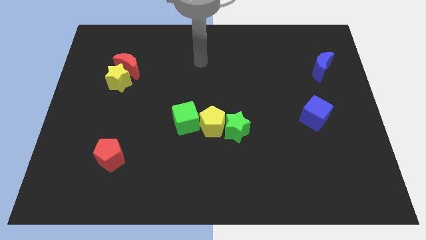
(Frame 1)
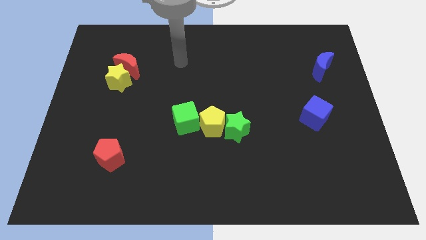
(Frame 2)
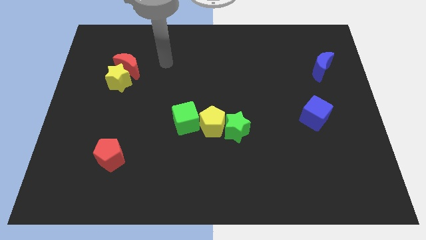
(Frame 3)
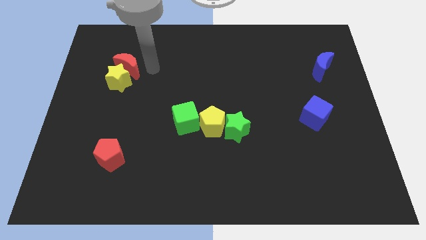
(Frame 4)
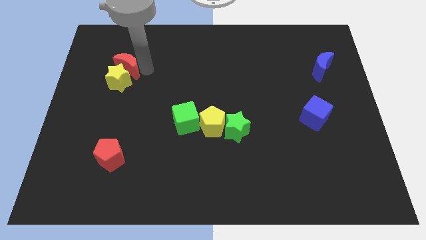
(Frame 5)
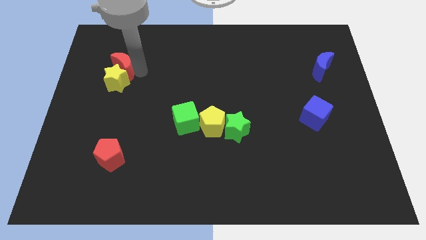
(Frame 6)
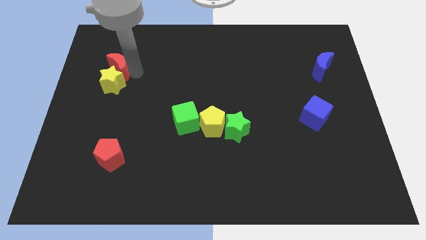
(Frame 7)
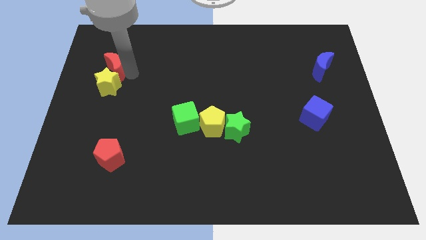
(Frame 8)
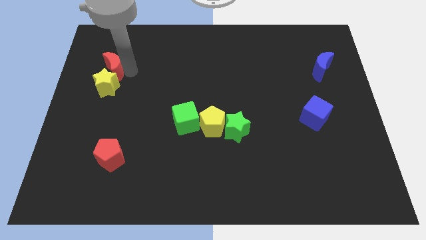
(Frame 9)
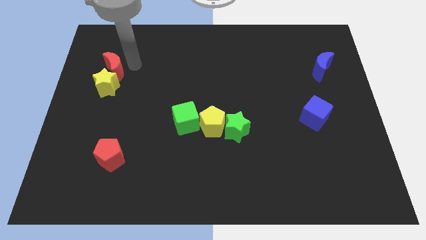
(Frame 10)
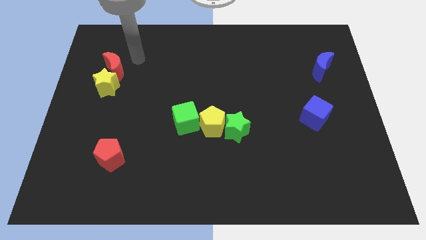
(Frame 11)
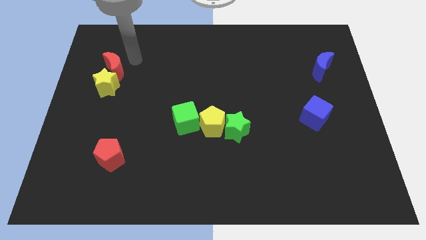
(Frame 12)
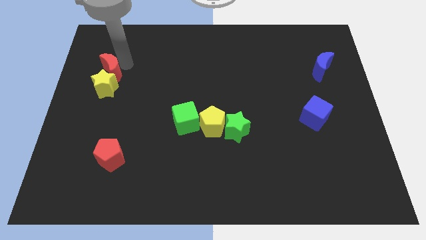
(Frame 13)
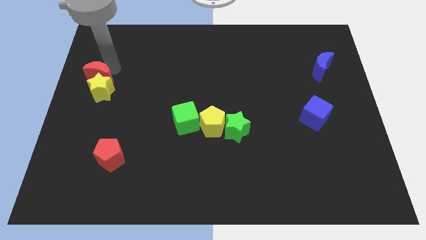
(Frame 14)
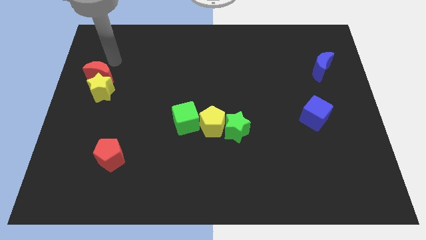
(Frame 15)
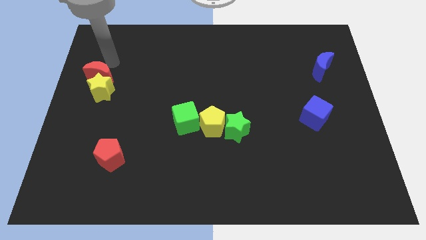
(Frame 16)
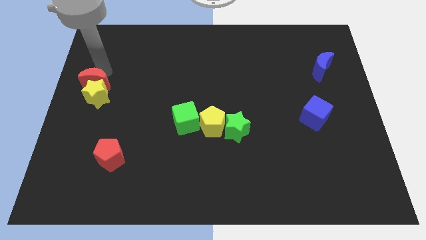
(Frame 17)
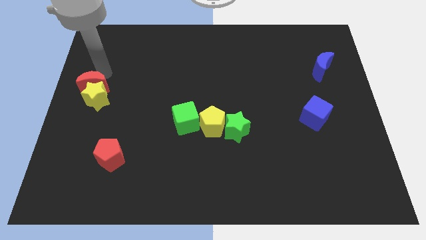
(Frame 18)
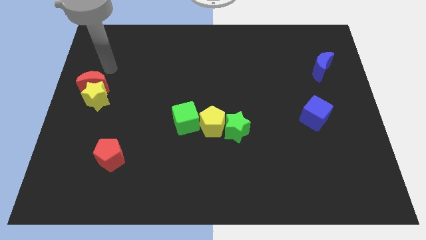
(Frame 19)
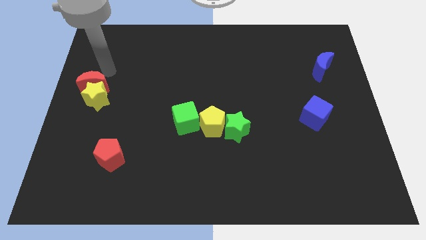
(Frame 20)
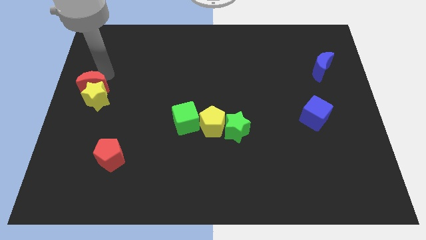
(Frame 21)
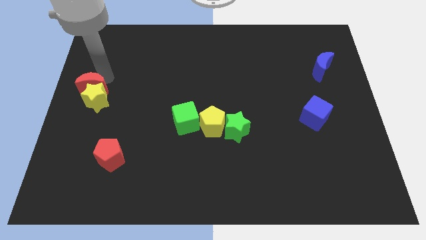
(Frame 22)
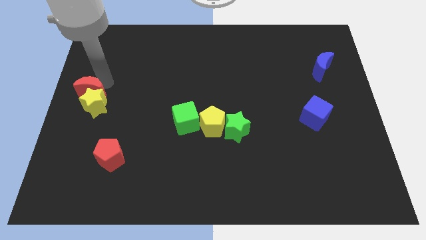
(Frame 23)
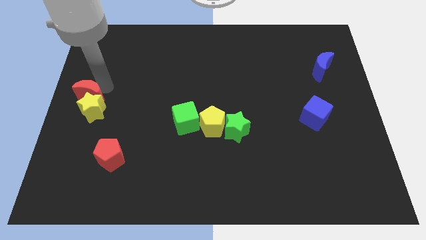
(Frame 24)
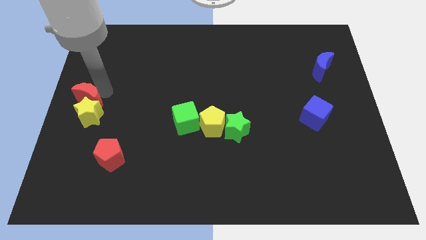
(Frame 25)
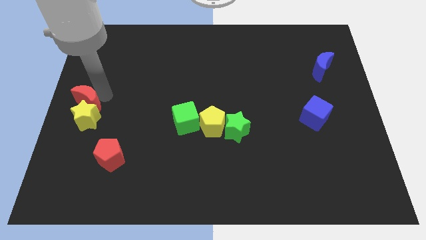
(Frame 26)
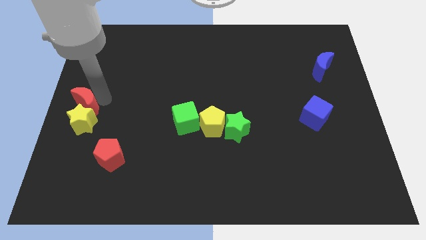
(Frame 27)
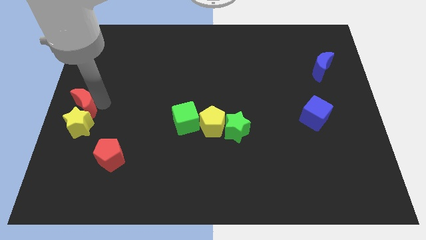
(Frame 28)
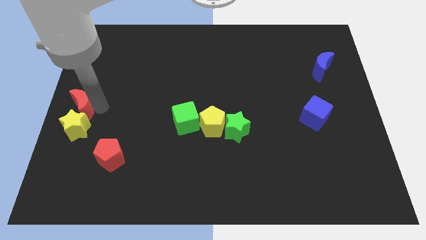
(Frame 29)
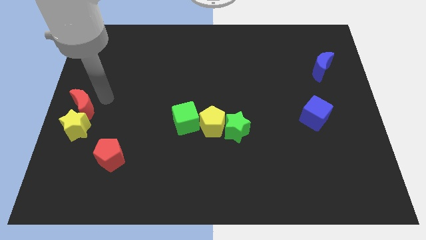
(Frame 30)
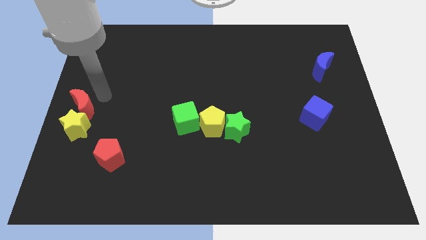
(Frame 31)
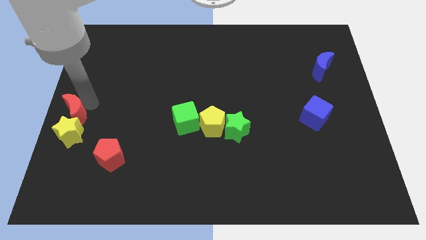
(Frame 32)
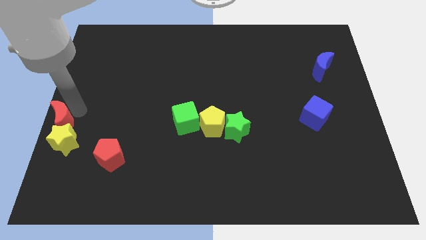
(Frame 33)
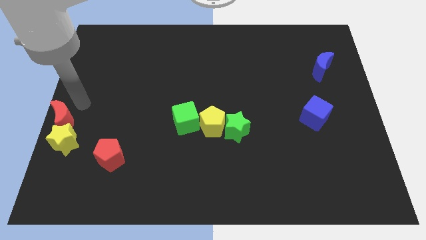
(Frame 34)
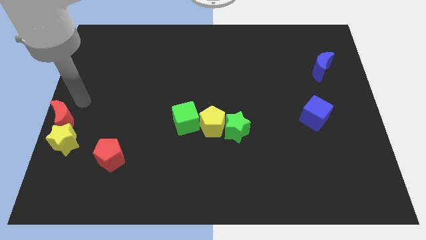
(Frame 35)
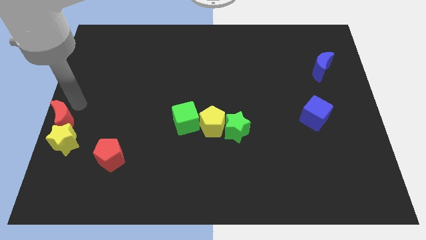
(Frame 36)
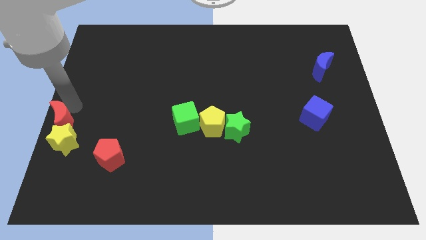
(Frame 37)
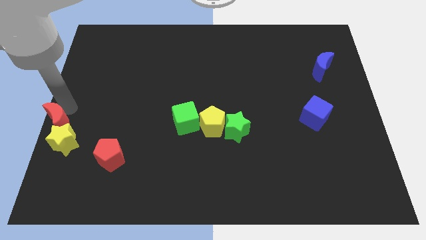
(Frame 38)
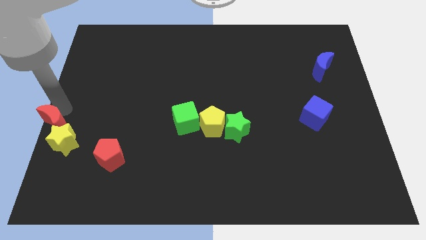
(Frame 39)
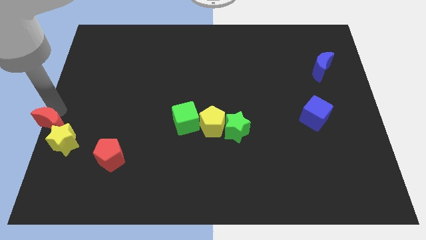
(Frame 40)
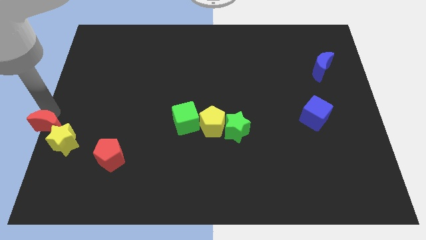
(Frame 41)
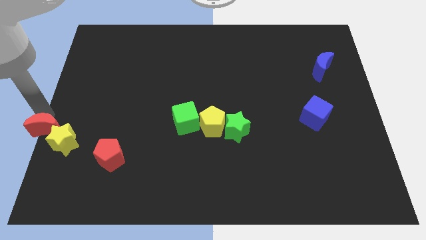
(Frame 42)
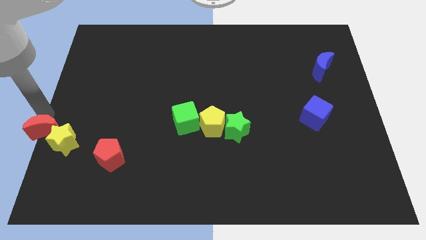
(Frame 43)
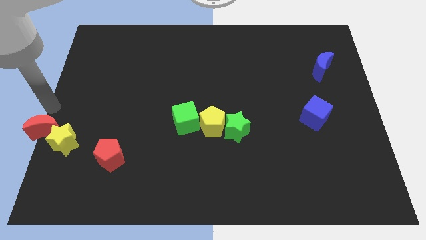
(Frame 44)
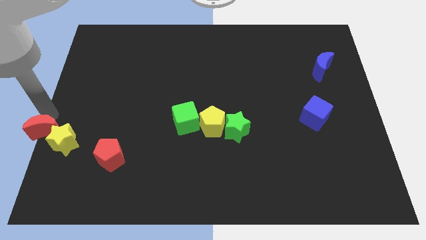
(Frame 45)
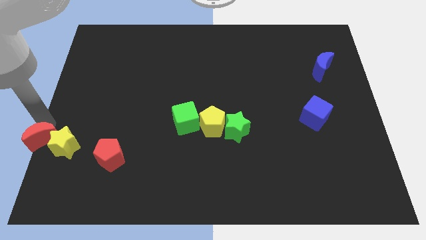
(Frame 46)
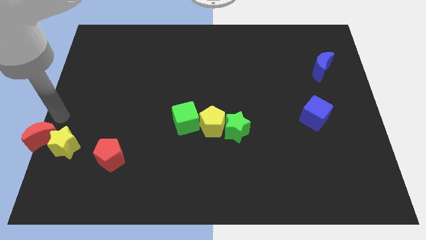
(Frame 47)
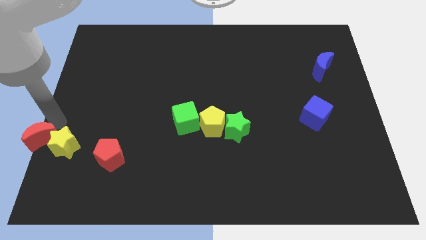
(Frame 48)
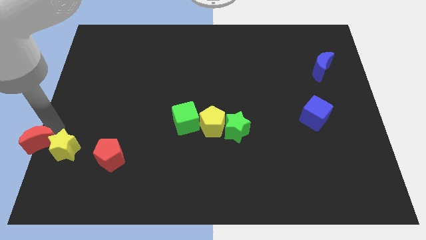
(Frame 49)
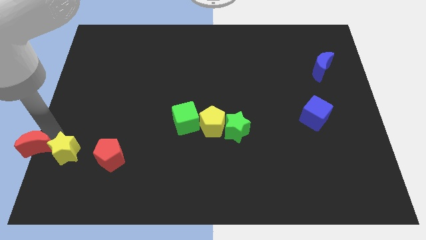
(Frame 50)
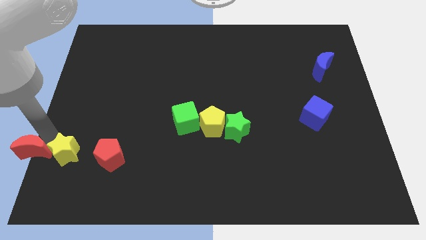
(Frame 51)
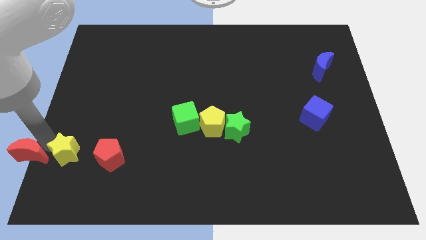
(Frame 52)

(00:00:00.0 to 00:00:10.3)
slide the red moon to the bottom left corner

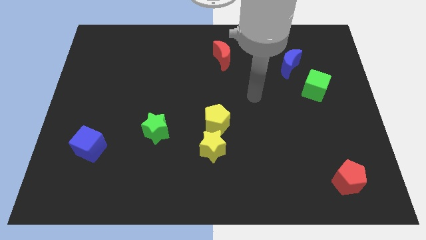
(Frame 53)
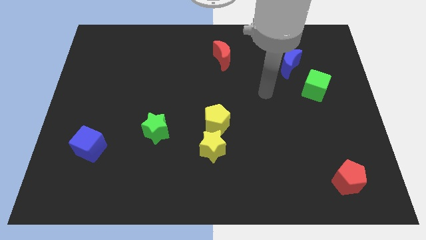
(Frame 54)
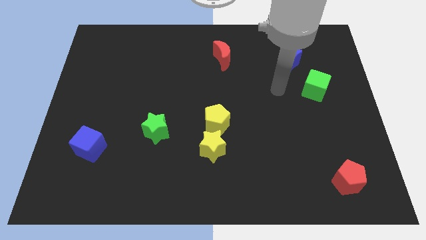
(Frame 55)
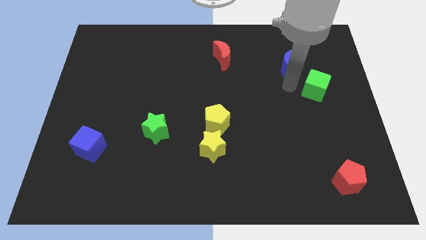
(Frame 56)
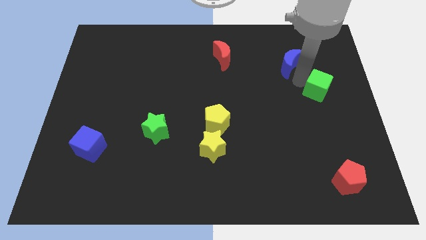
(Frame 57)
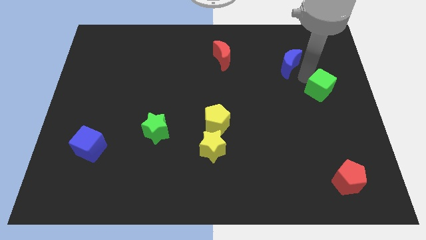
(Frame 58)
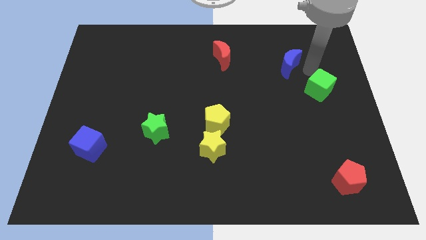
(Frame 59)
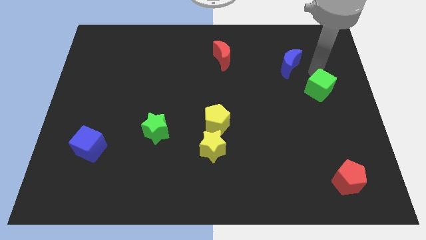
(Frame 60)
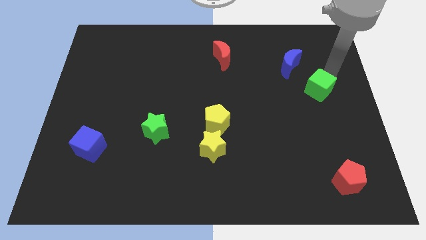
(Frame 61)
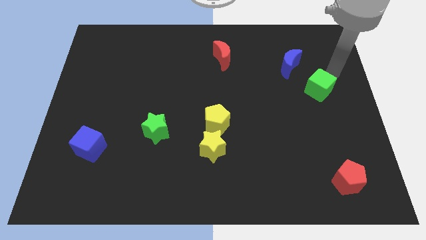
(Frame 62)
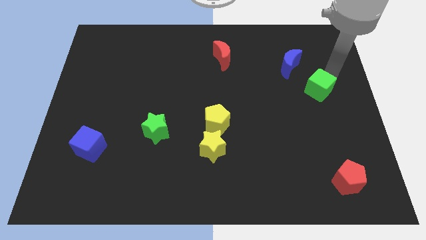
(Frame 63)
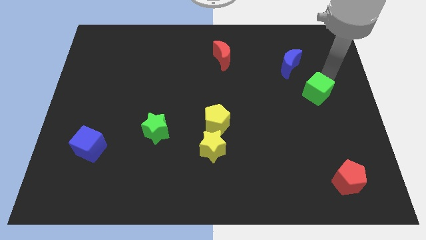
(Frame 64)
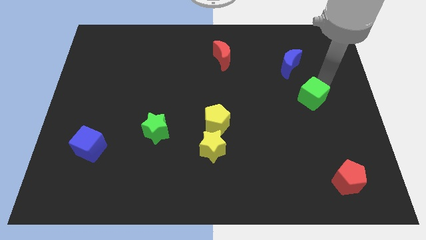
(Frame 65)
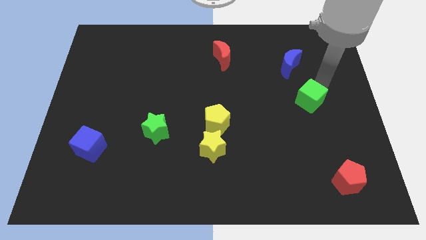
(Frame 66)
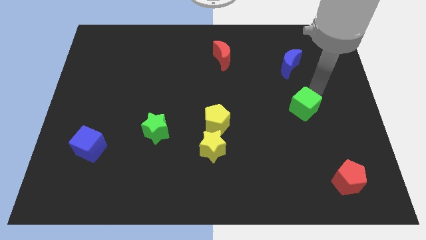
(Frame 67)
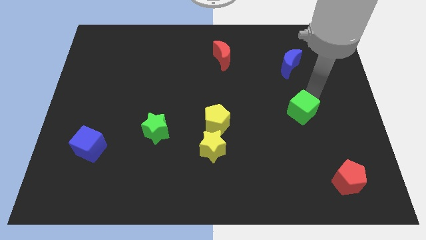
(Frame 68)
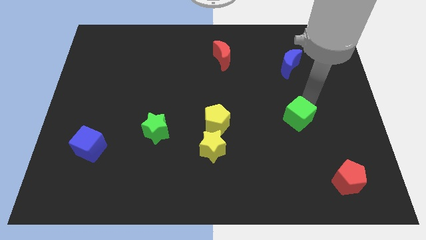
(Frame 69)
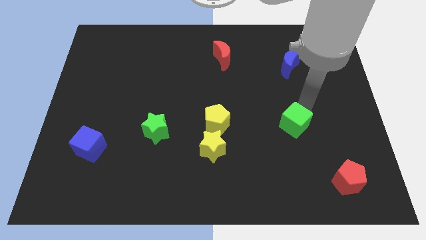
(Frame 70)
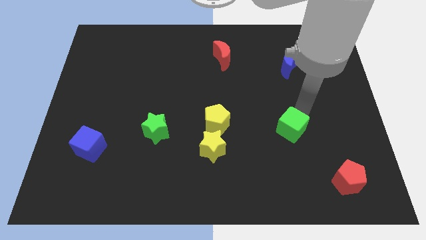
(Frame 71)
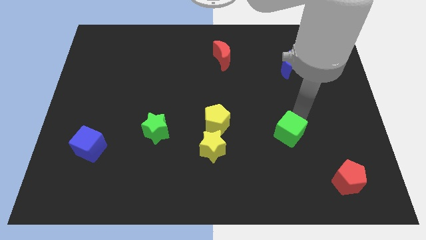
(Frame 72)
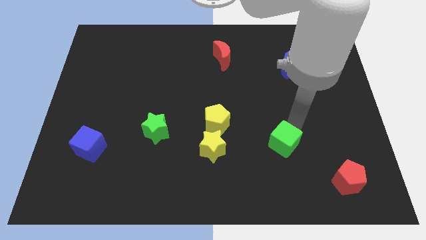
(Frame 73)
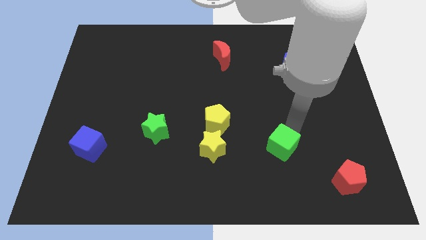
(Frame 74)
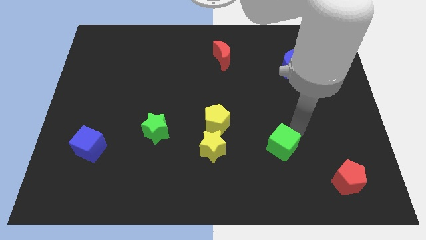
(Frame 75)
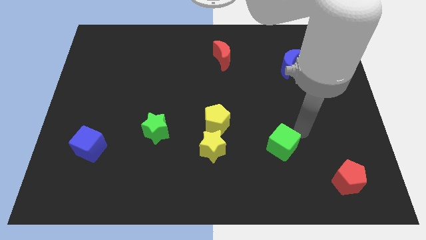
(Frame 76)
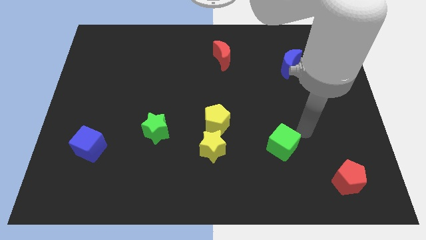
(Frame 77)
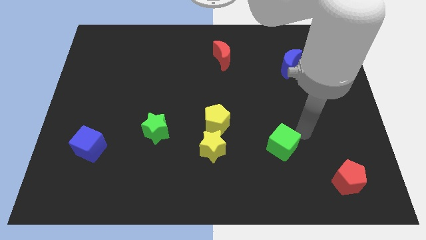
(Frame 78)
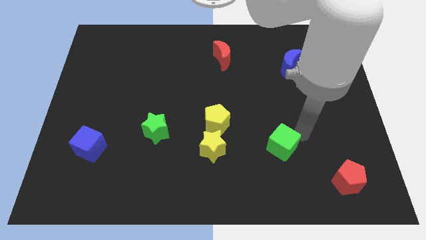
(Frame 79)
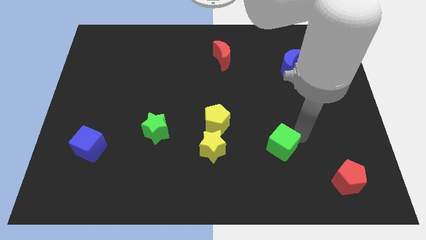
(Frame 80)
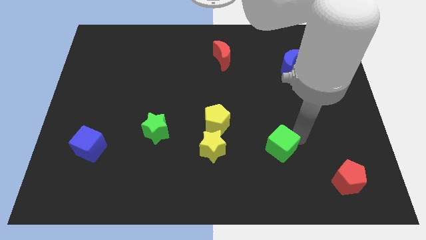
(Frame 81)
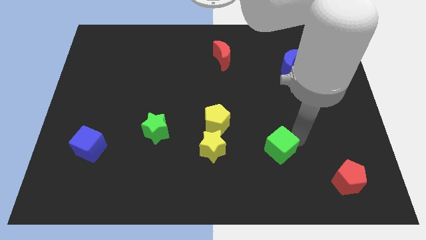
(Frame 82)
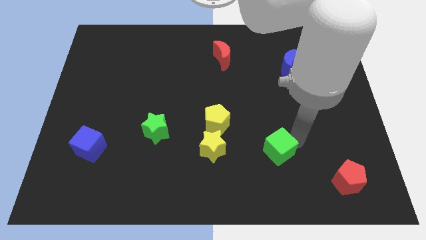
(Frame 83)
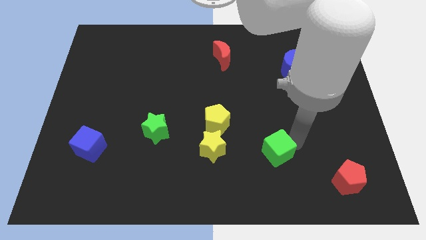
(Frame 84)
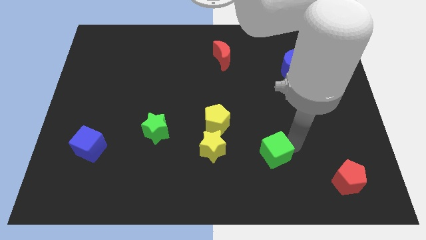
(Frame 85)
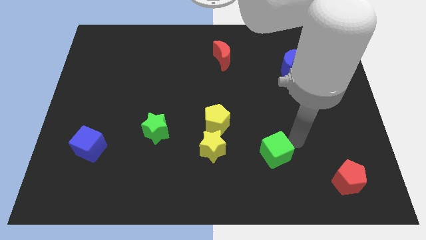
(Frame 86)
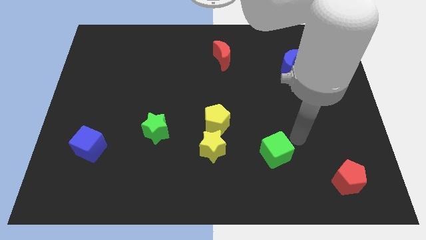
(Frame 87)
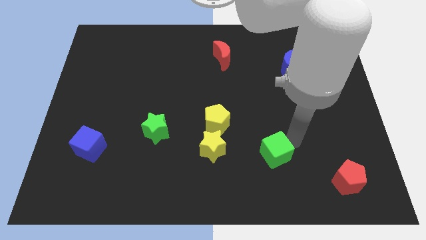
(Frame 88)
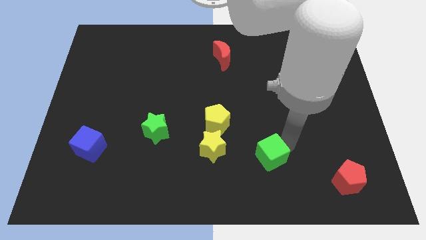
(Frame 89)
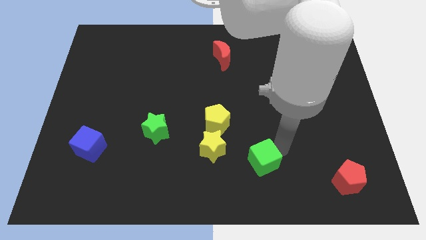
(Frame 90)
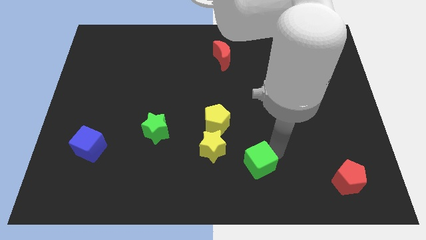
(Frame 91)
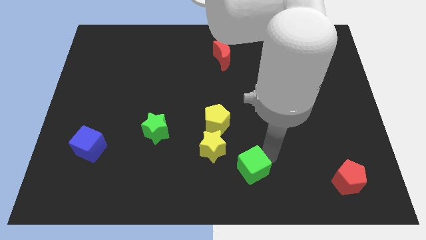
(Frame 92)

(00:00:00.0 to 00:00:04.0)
put the green cube to the bottom side
